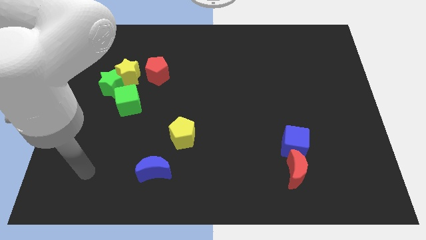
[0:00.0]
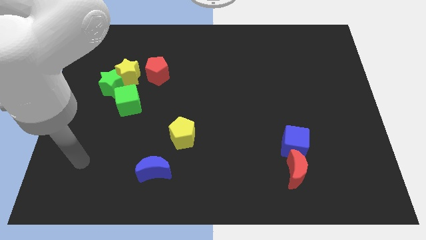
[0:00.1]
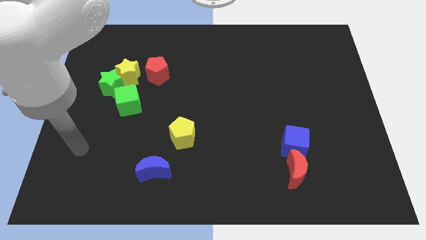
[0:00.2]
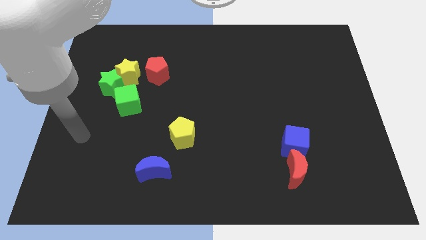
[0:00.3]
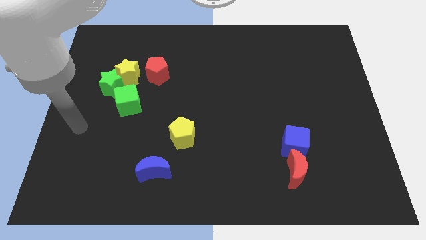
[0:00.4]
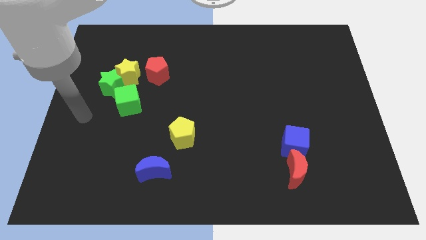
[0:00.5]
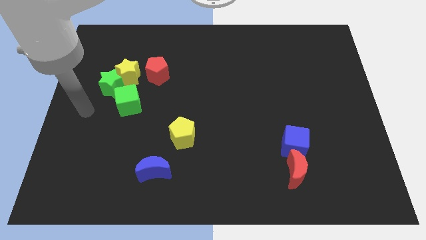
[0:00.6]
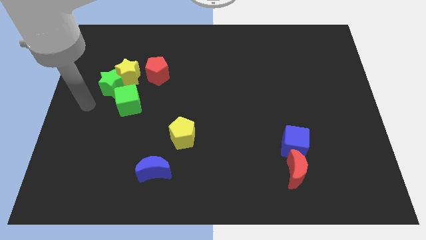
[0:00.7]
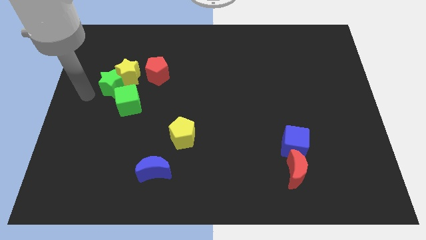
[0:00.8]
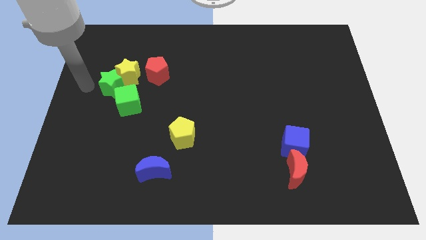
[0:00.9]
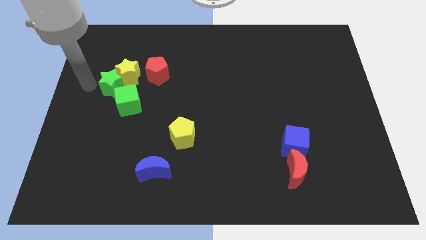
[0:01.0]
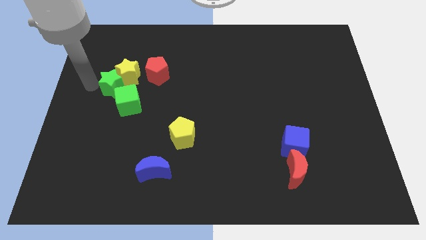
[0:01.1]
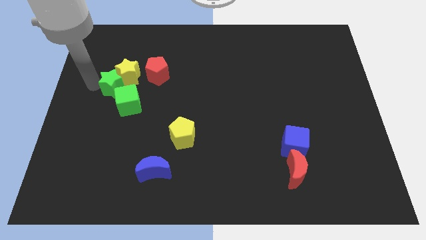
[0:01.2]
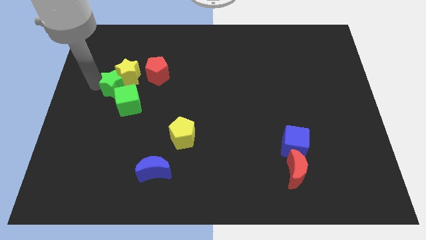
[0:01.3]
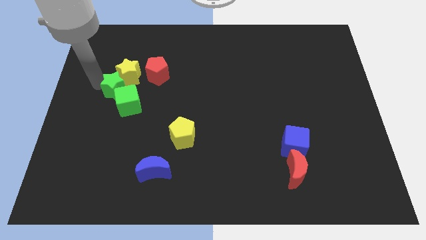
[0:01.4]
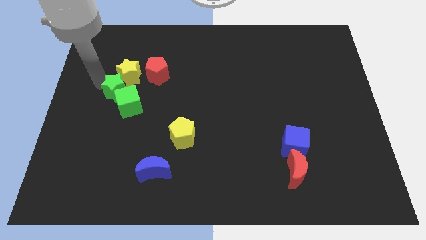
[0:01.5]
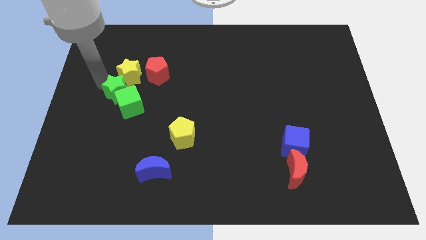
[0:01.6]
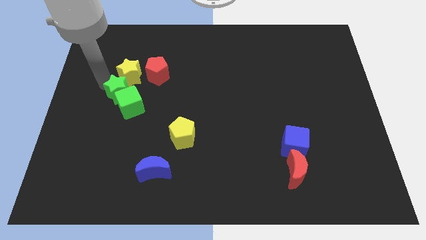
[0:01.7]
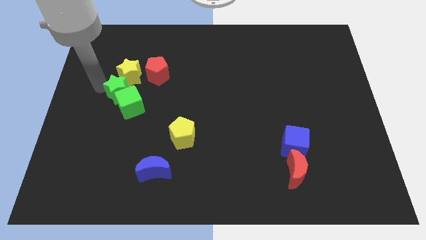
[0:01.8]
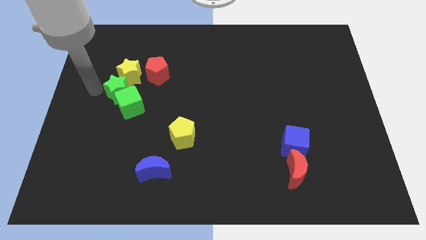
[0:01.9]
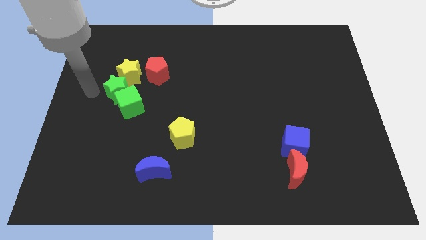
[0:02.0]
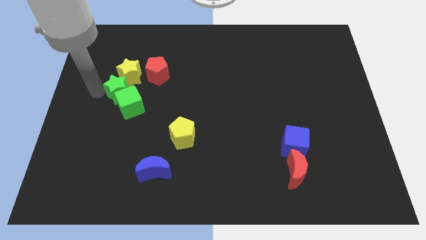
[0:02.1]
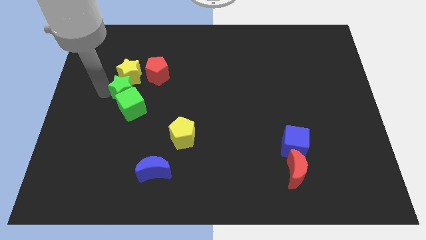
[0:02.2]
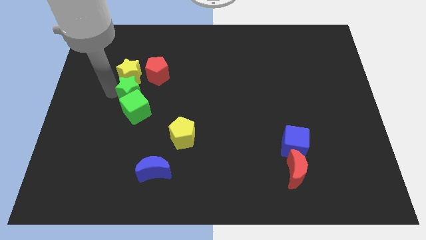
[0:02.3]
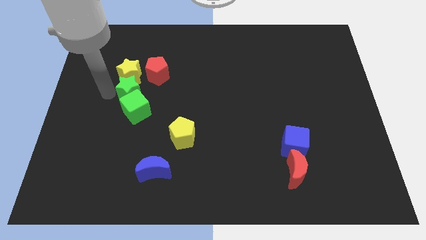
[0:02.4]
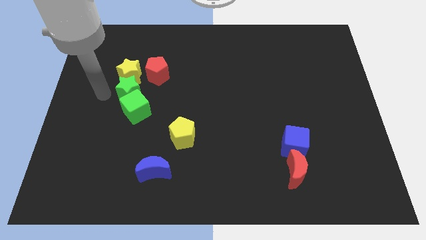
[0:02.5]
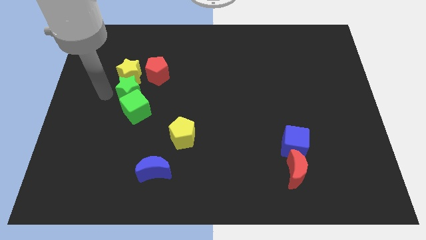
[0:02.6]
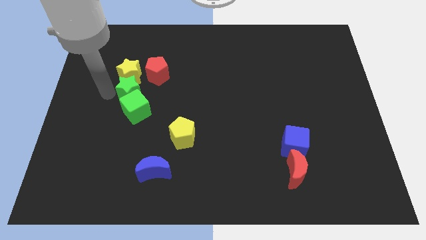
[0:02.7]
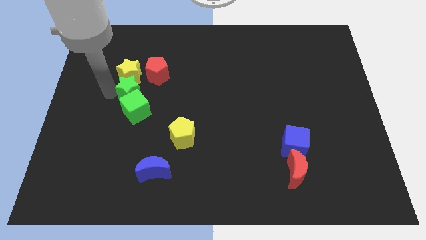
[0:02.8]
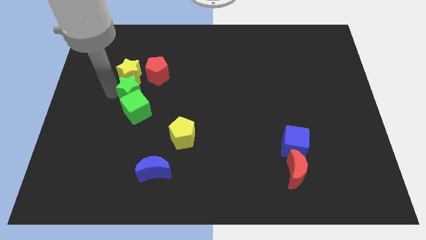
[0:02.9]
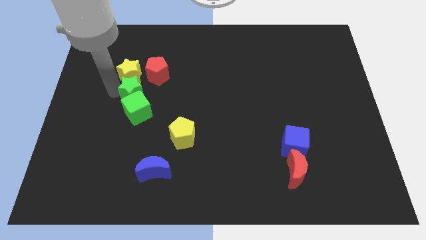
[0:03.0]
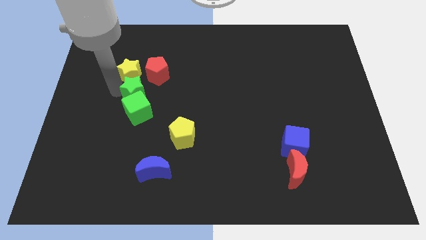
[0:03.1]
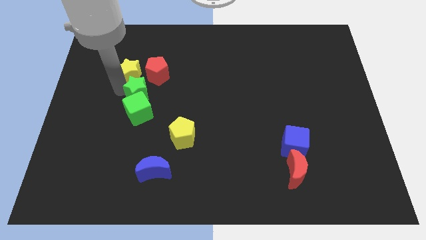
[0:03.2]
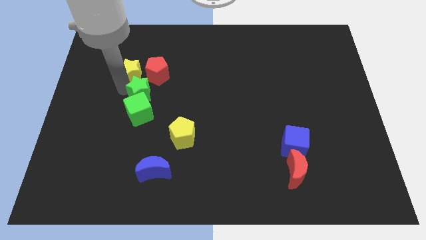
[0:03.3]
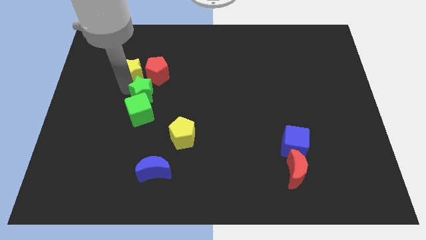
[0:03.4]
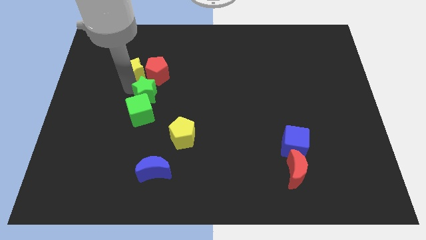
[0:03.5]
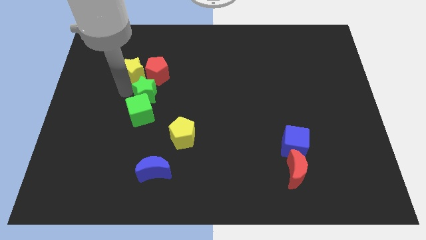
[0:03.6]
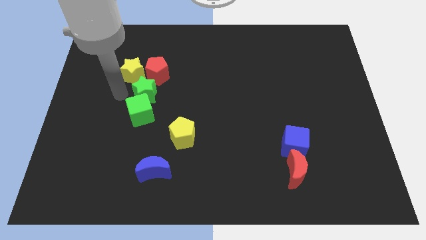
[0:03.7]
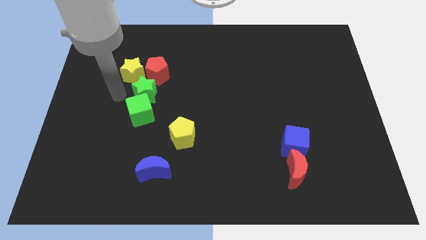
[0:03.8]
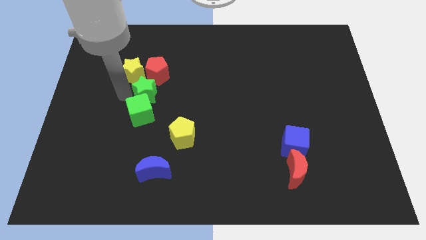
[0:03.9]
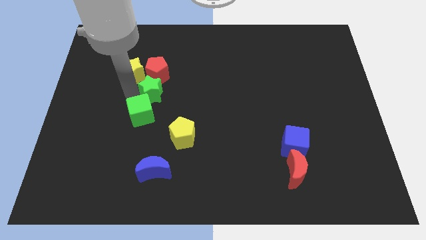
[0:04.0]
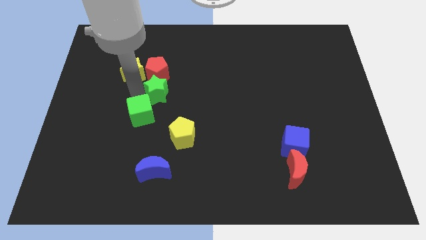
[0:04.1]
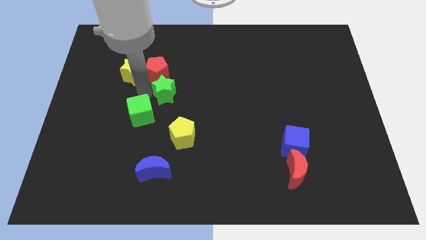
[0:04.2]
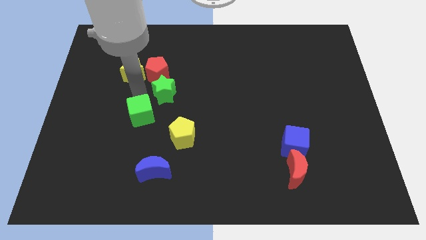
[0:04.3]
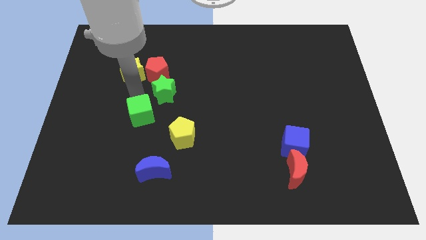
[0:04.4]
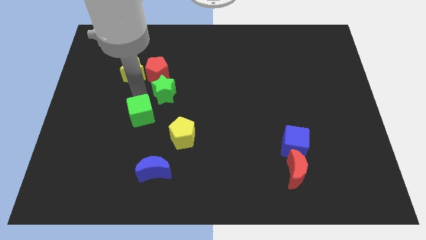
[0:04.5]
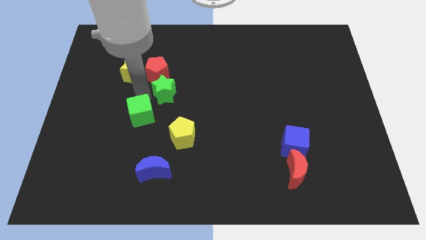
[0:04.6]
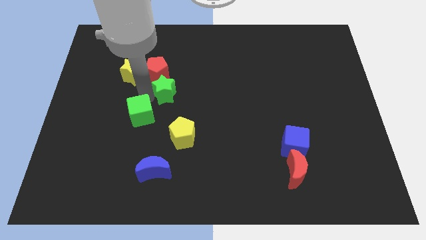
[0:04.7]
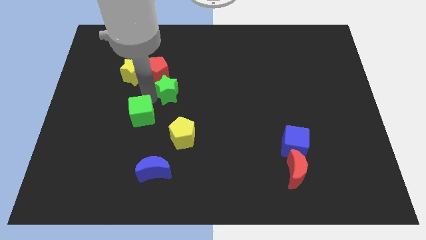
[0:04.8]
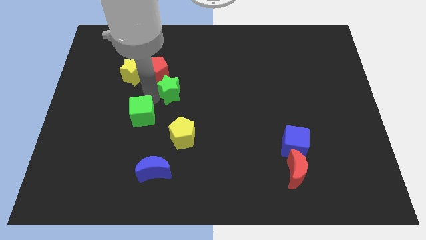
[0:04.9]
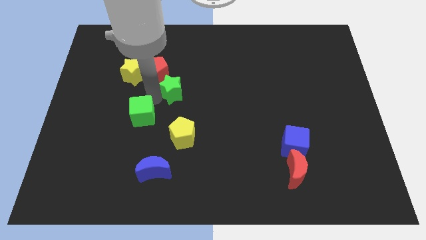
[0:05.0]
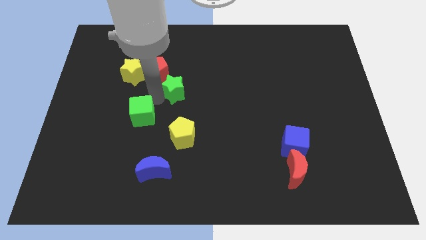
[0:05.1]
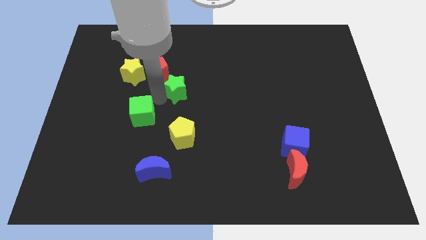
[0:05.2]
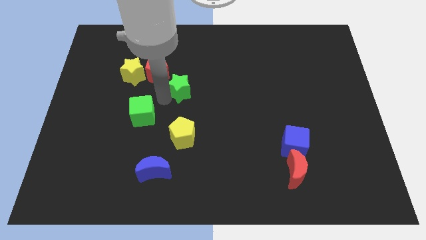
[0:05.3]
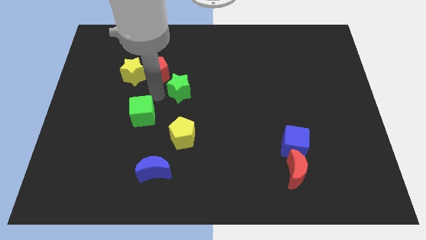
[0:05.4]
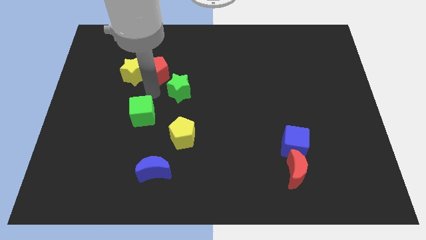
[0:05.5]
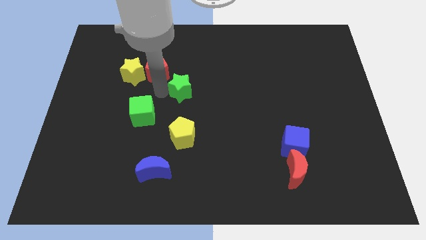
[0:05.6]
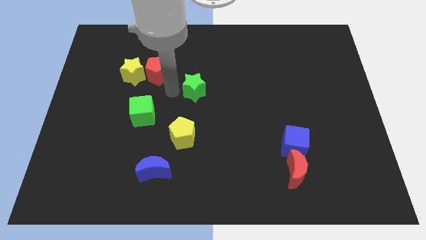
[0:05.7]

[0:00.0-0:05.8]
slide the green star right

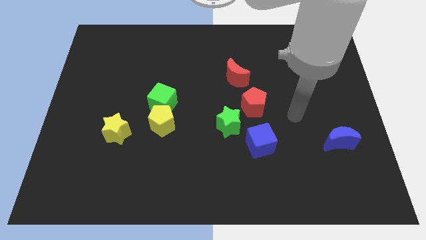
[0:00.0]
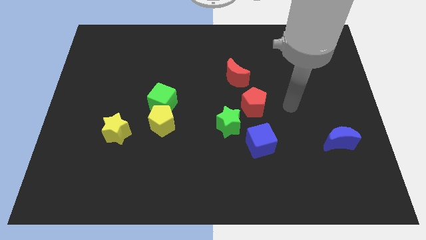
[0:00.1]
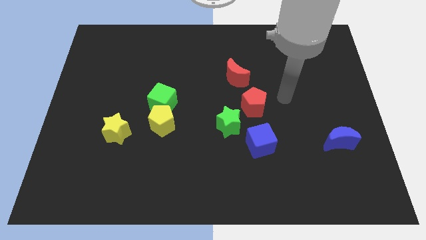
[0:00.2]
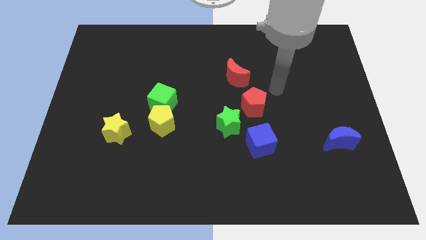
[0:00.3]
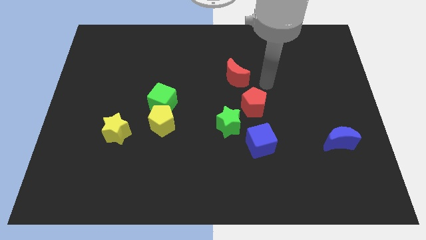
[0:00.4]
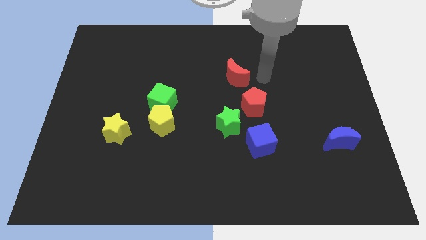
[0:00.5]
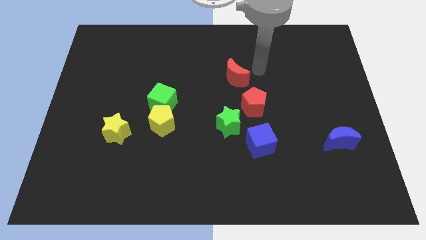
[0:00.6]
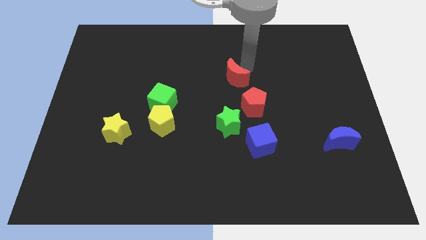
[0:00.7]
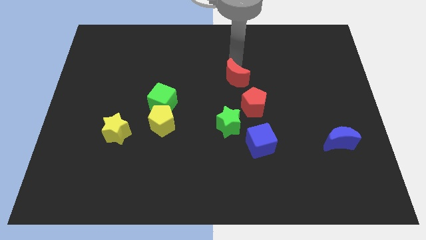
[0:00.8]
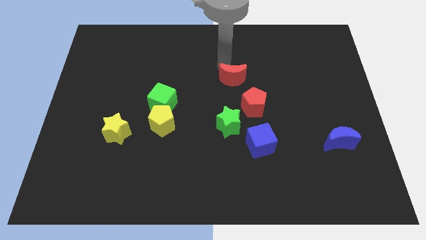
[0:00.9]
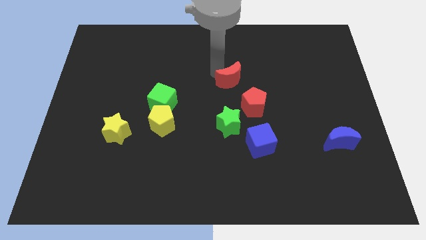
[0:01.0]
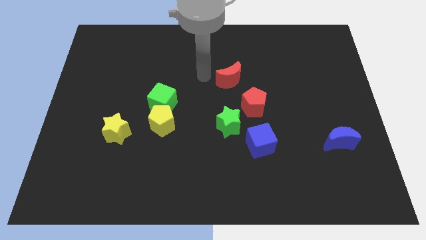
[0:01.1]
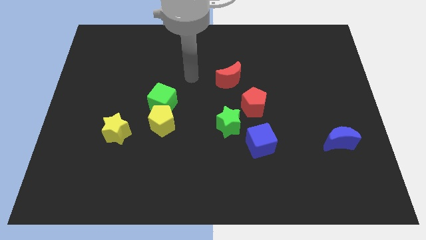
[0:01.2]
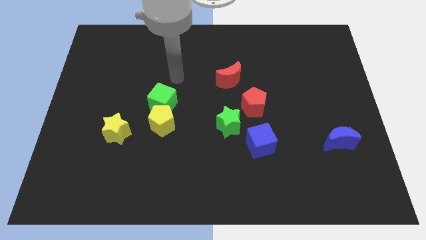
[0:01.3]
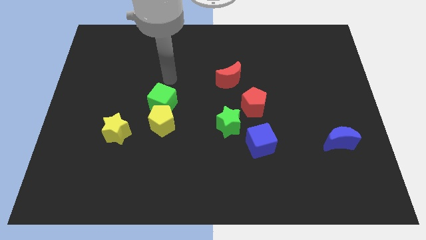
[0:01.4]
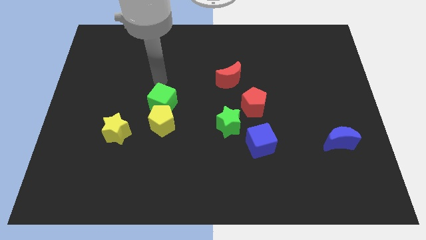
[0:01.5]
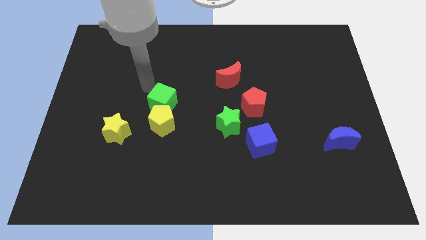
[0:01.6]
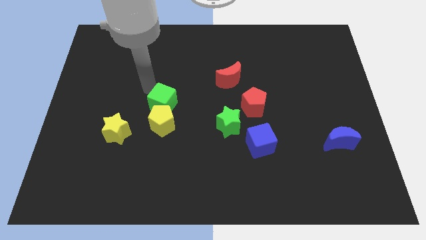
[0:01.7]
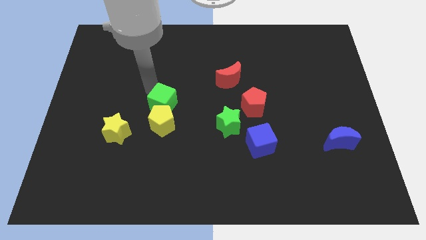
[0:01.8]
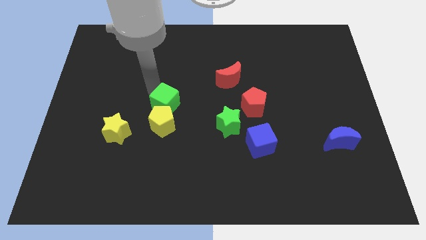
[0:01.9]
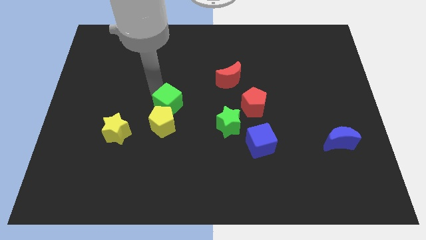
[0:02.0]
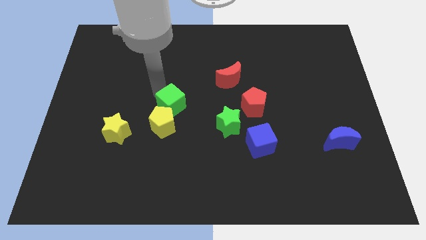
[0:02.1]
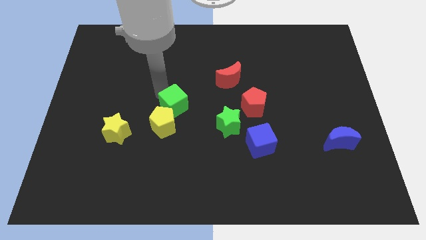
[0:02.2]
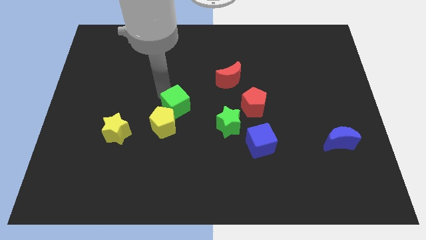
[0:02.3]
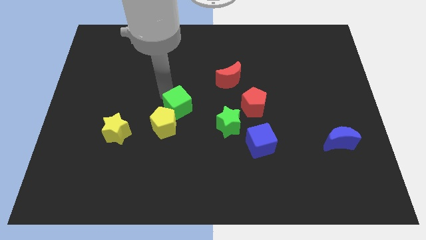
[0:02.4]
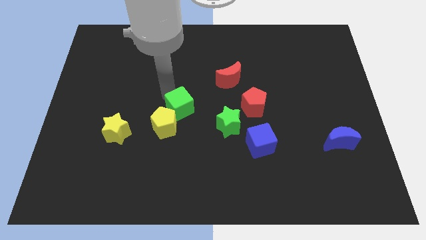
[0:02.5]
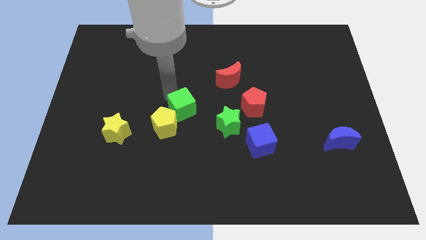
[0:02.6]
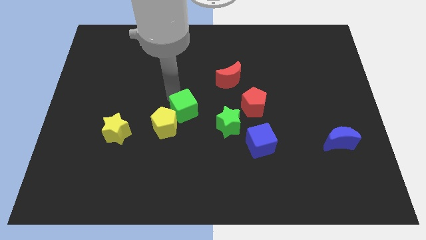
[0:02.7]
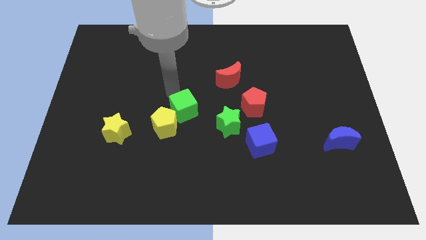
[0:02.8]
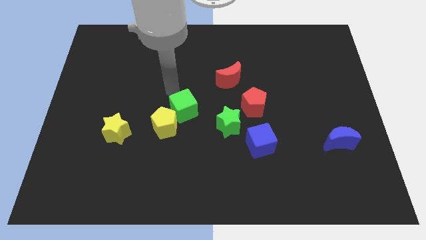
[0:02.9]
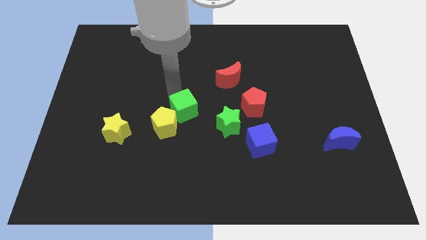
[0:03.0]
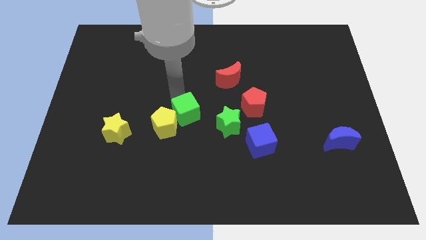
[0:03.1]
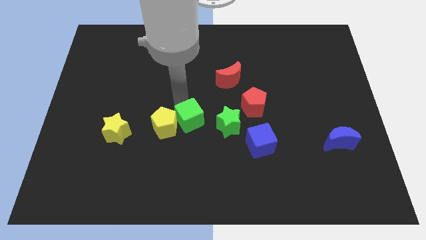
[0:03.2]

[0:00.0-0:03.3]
move the green cube down and then to the right a little
